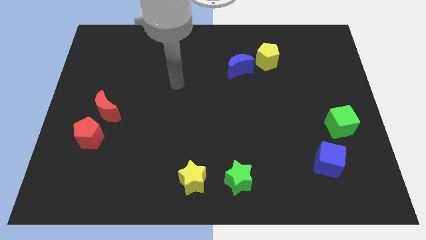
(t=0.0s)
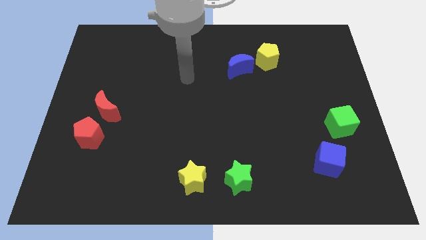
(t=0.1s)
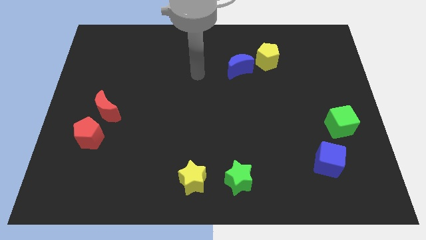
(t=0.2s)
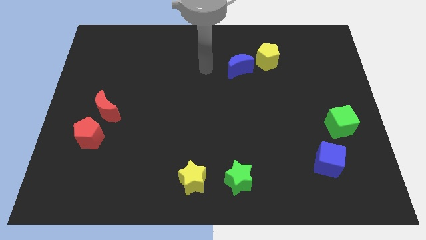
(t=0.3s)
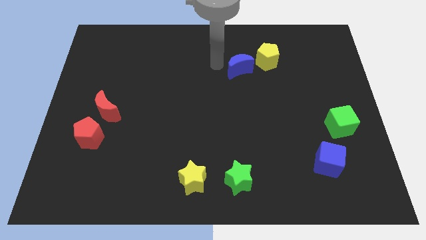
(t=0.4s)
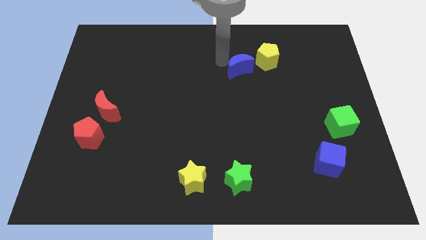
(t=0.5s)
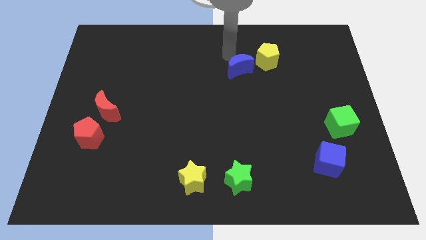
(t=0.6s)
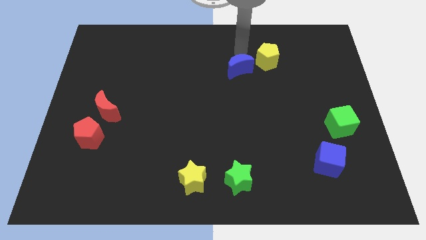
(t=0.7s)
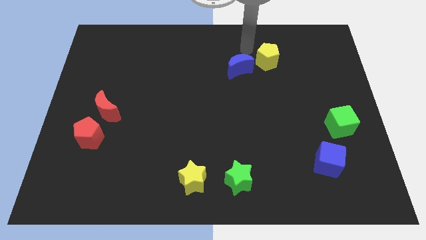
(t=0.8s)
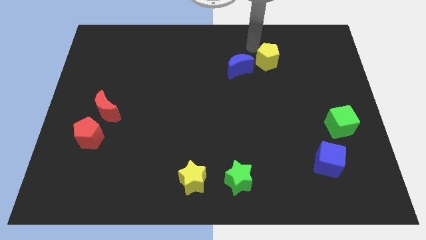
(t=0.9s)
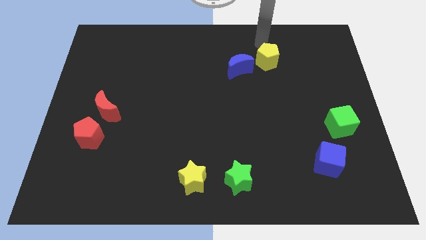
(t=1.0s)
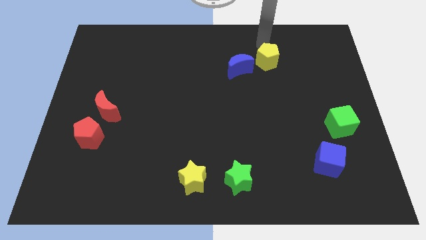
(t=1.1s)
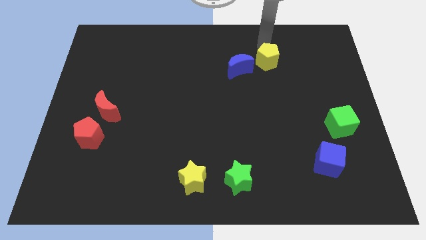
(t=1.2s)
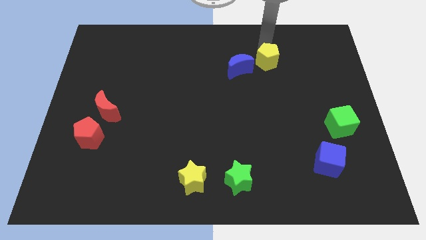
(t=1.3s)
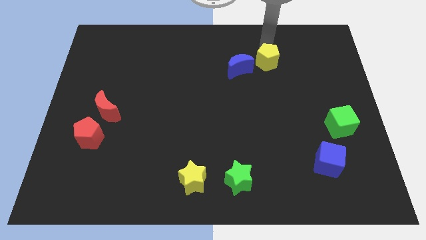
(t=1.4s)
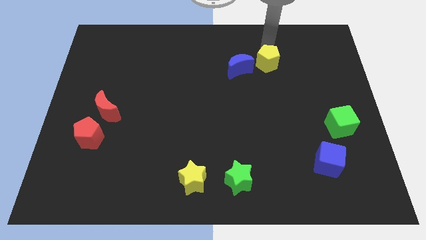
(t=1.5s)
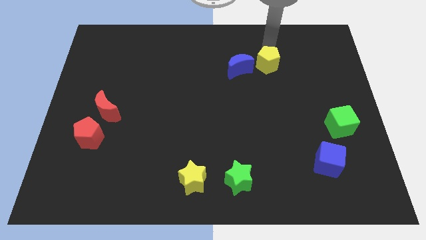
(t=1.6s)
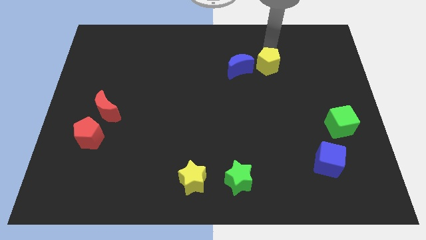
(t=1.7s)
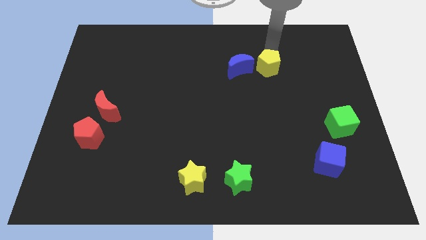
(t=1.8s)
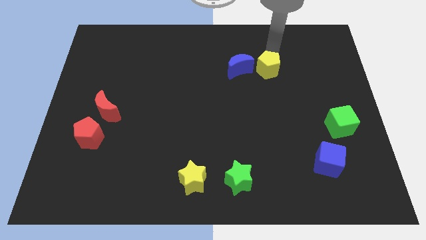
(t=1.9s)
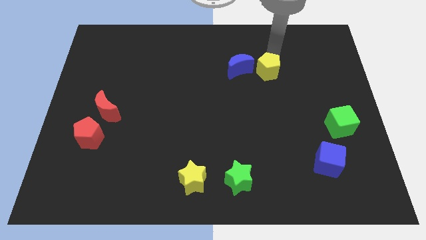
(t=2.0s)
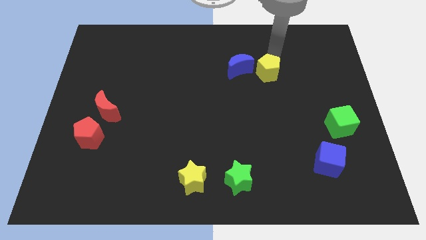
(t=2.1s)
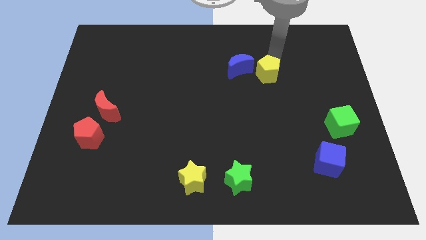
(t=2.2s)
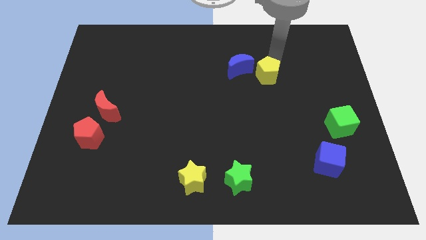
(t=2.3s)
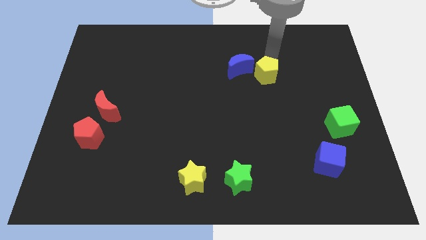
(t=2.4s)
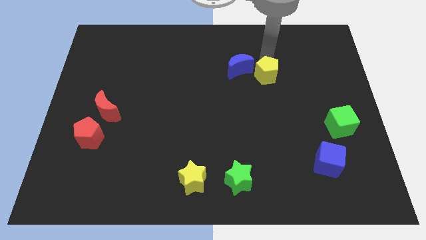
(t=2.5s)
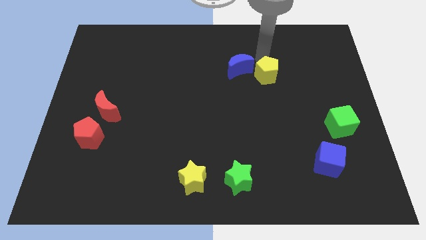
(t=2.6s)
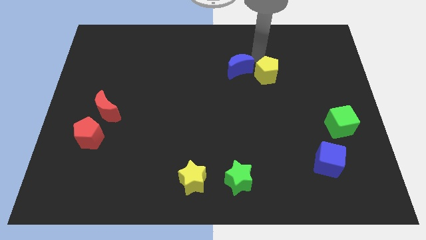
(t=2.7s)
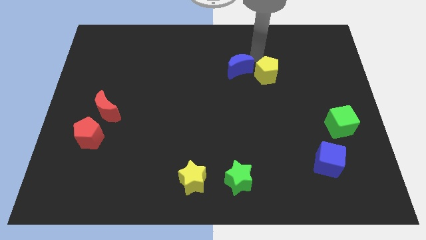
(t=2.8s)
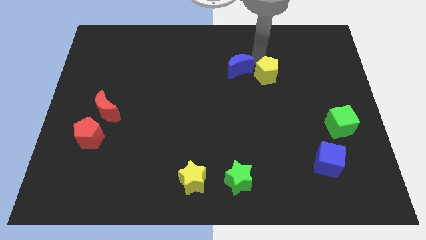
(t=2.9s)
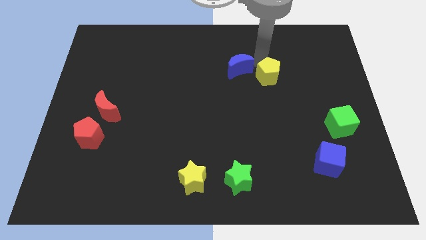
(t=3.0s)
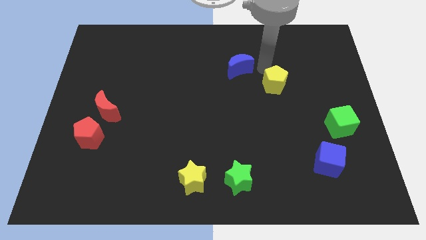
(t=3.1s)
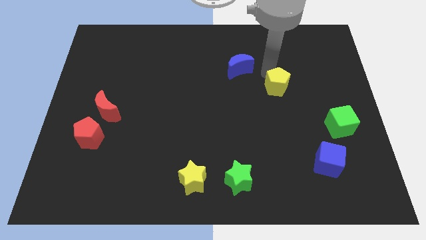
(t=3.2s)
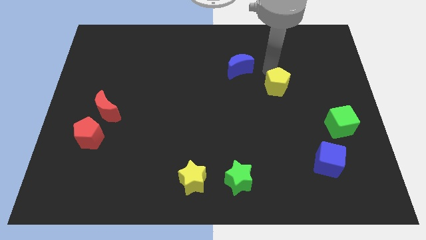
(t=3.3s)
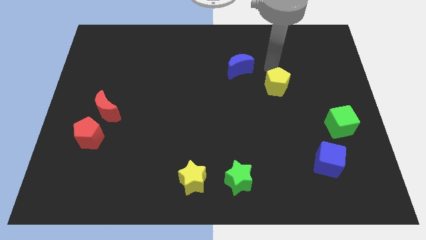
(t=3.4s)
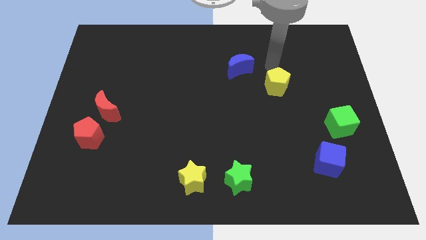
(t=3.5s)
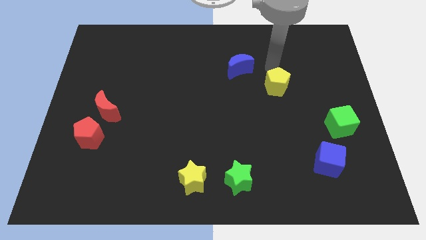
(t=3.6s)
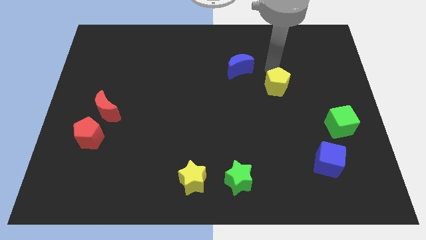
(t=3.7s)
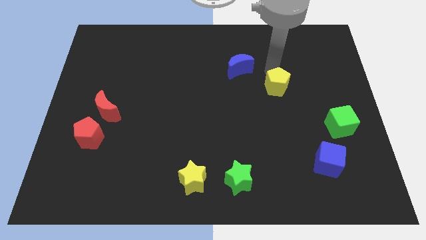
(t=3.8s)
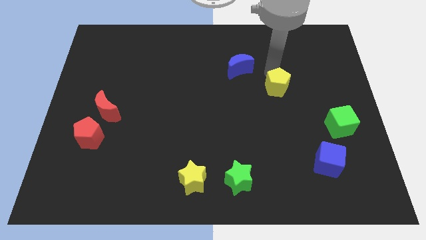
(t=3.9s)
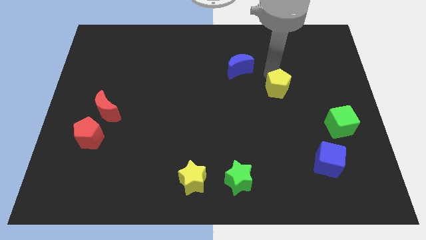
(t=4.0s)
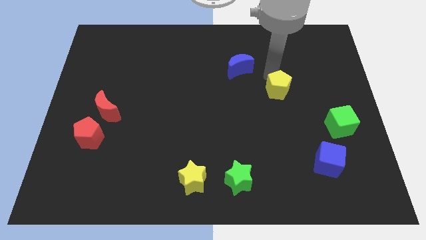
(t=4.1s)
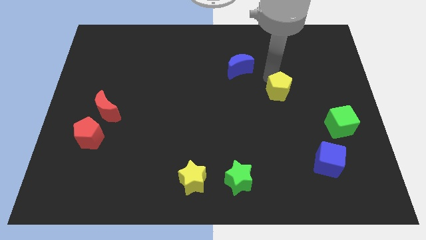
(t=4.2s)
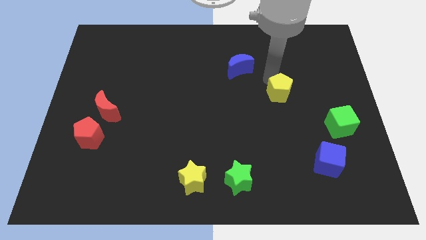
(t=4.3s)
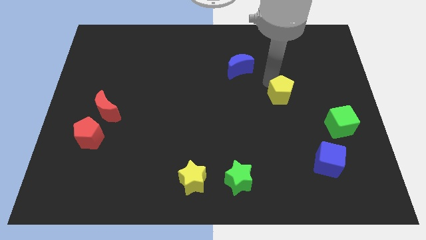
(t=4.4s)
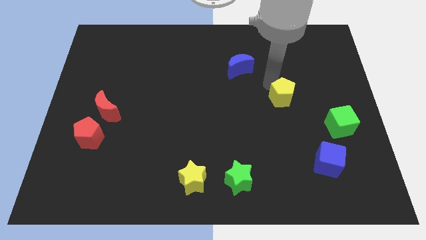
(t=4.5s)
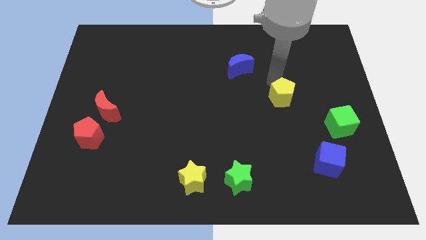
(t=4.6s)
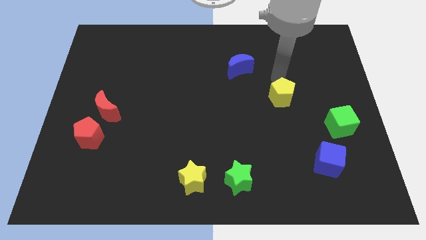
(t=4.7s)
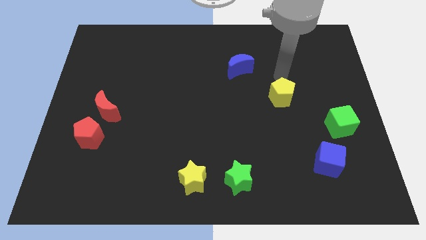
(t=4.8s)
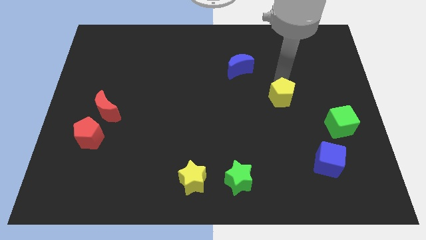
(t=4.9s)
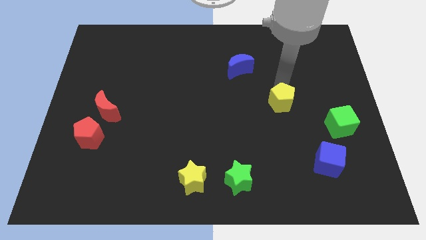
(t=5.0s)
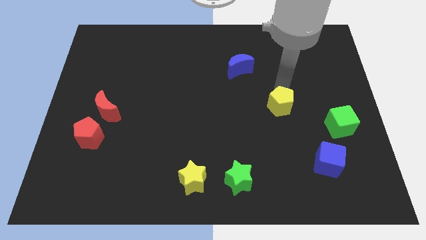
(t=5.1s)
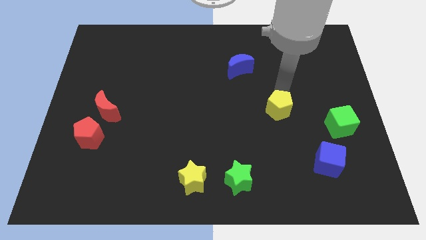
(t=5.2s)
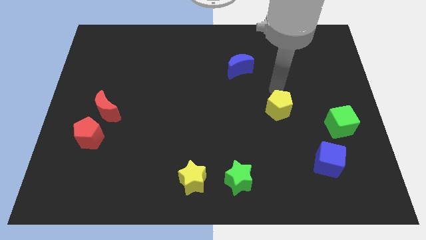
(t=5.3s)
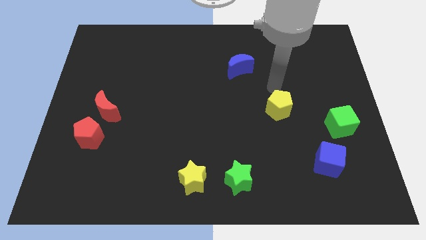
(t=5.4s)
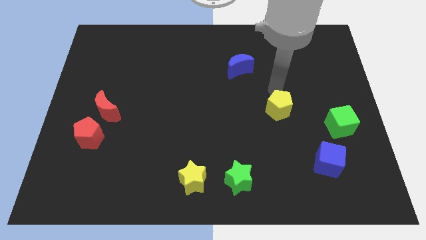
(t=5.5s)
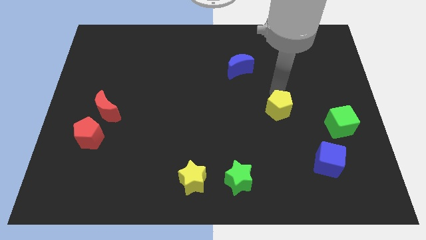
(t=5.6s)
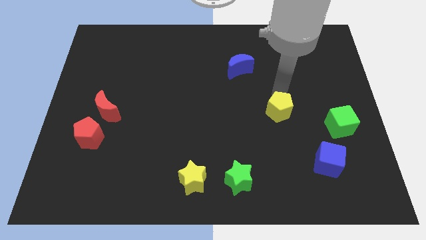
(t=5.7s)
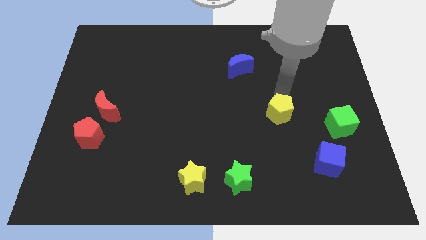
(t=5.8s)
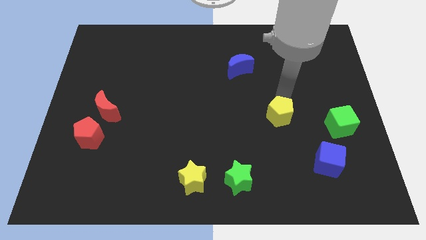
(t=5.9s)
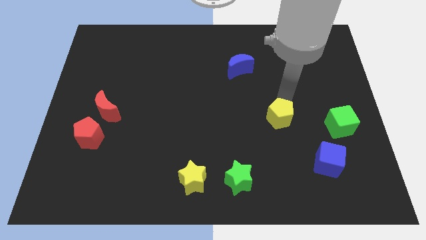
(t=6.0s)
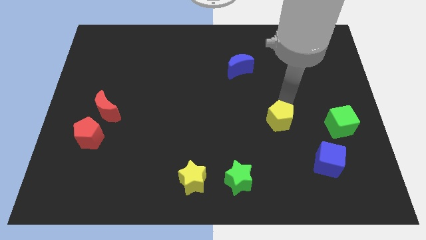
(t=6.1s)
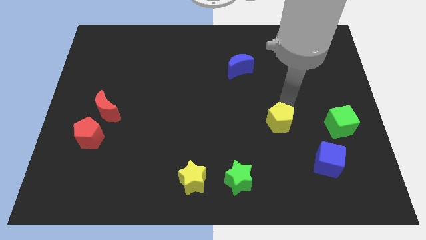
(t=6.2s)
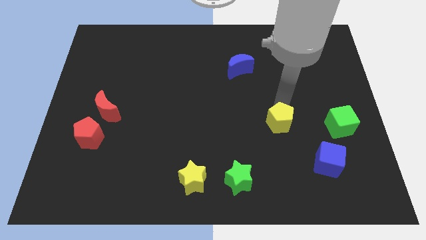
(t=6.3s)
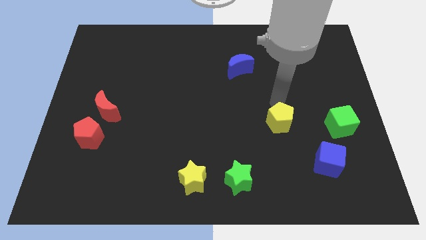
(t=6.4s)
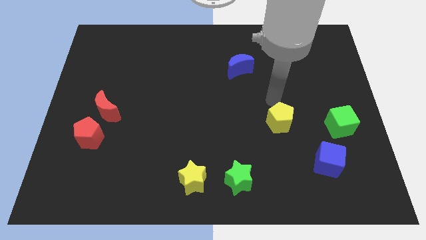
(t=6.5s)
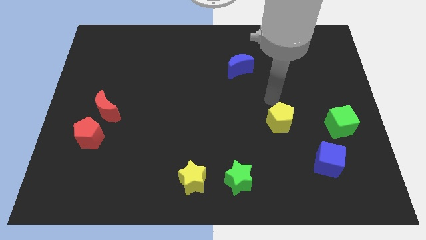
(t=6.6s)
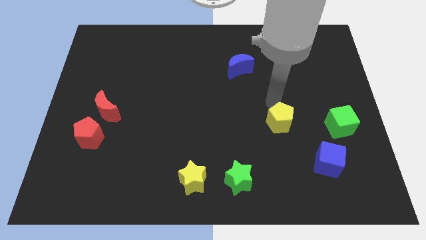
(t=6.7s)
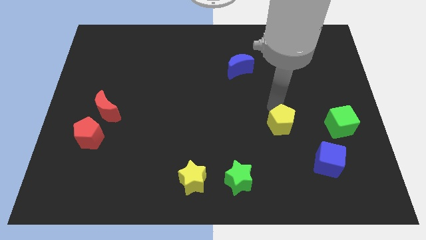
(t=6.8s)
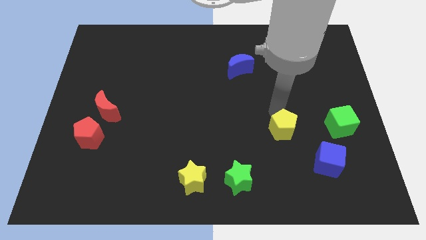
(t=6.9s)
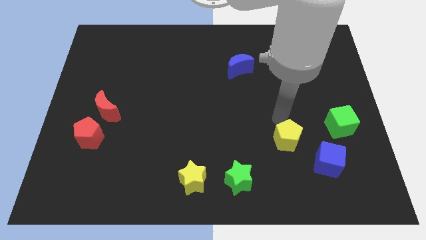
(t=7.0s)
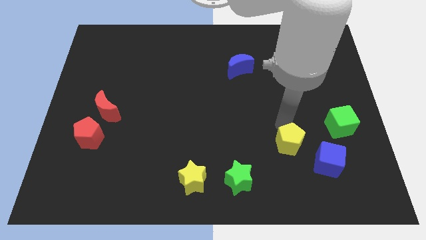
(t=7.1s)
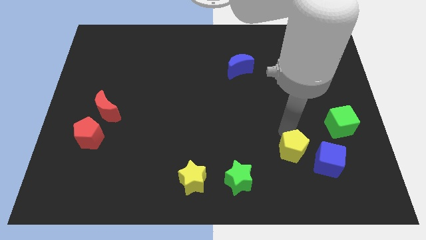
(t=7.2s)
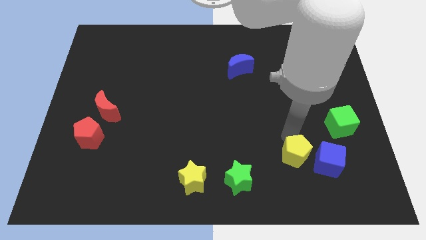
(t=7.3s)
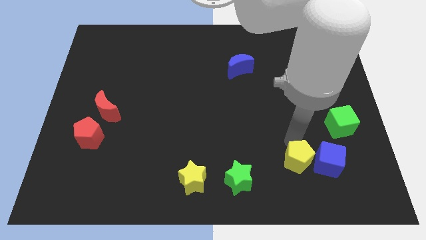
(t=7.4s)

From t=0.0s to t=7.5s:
slide the yellow pentagon to the right side of the green star
